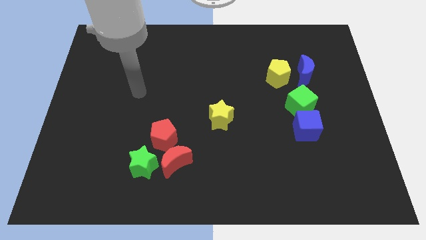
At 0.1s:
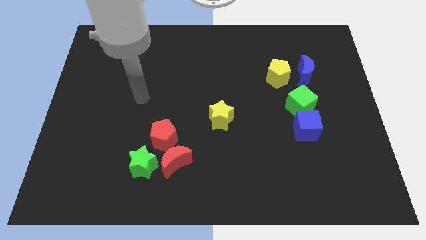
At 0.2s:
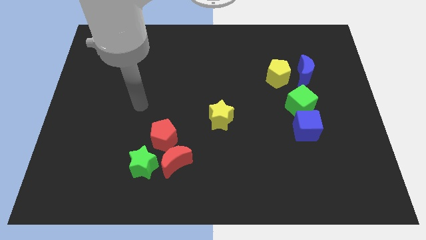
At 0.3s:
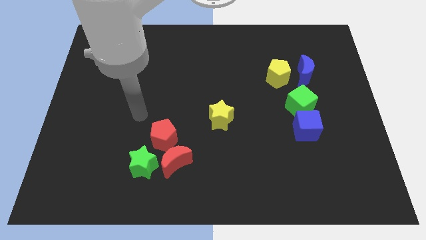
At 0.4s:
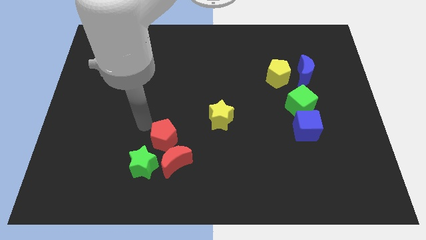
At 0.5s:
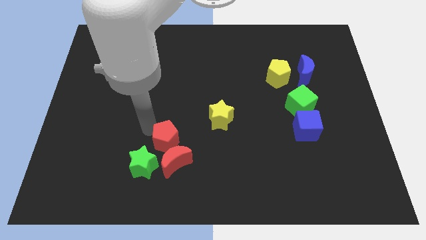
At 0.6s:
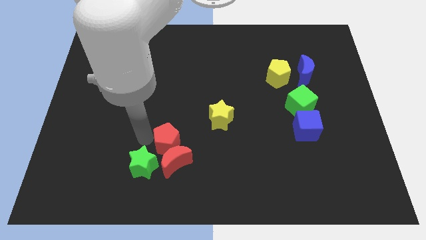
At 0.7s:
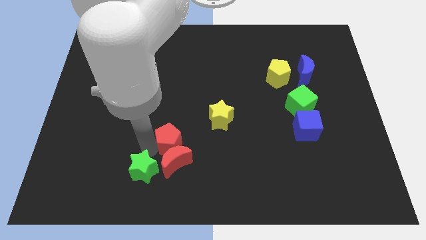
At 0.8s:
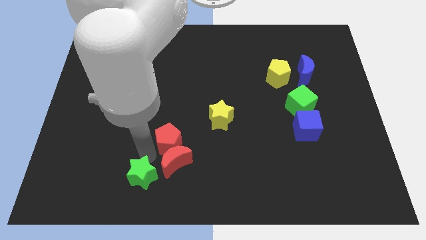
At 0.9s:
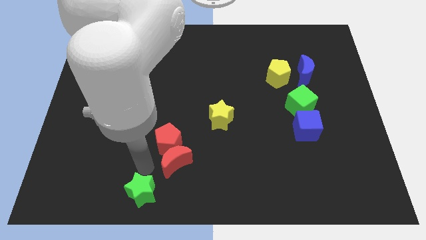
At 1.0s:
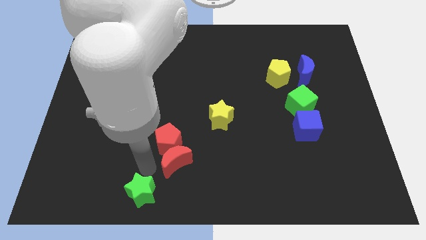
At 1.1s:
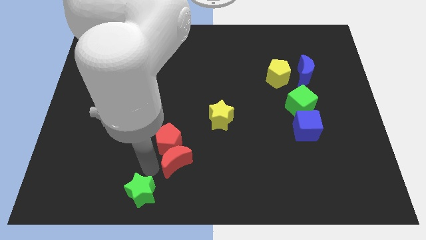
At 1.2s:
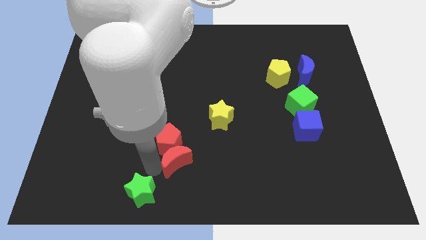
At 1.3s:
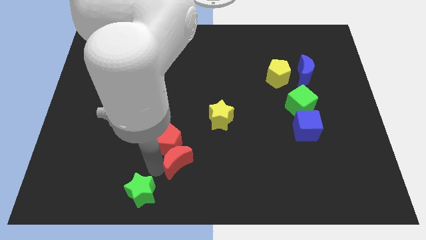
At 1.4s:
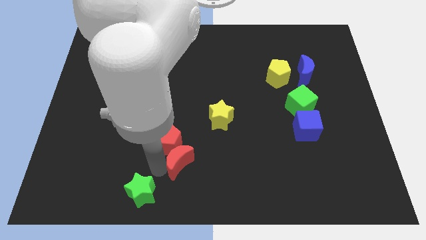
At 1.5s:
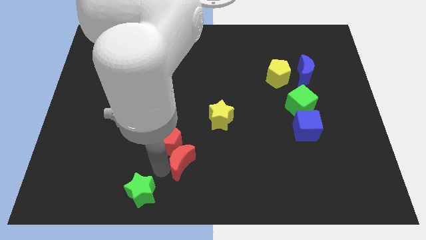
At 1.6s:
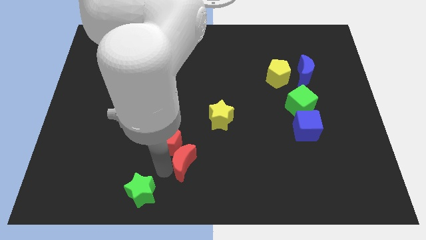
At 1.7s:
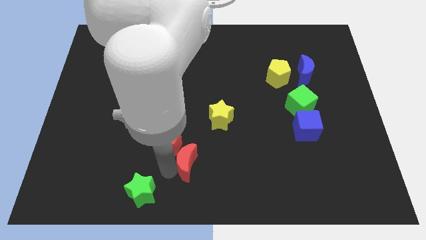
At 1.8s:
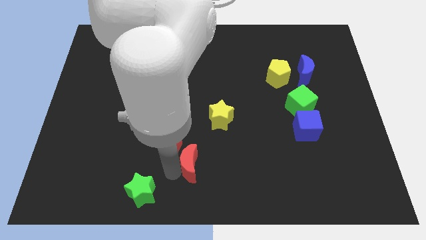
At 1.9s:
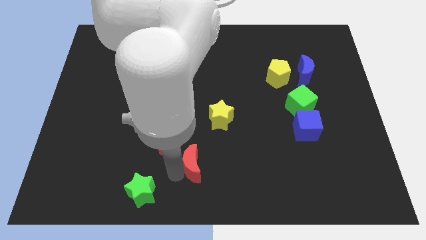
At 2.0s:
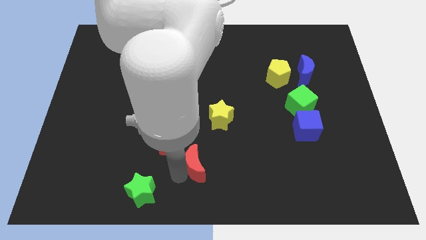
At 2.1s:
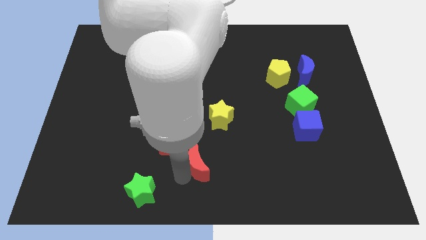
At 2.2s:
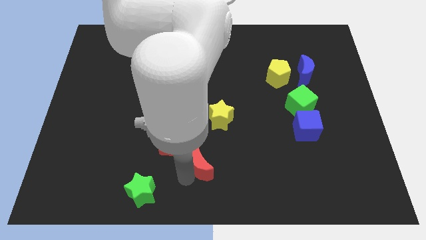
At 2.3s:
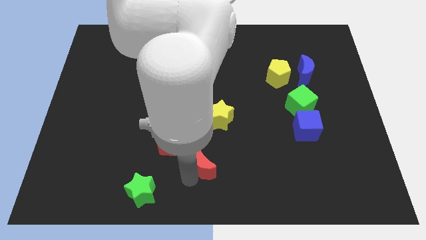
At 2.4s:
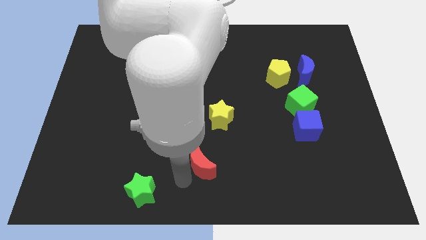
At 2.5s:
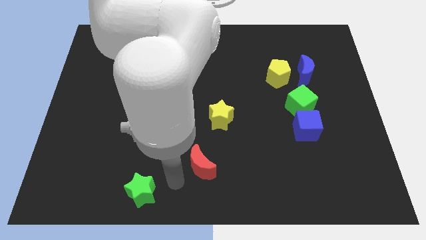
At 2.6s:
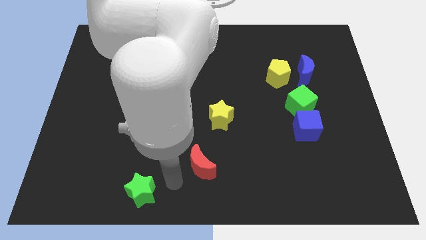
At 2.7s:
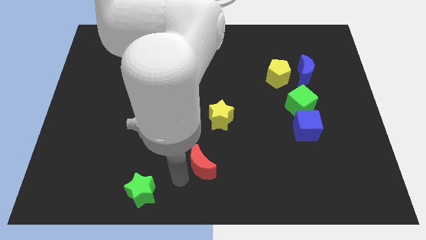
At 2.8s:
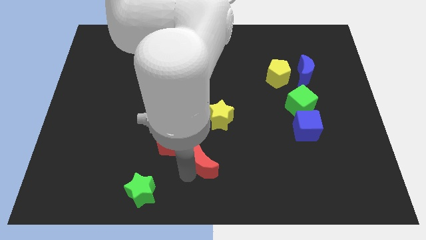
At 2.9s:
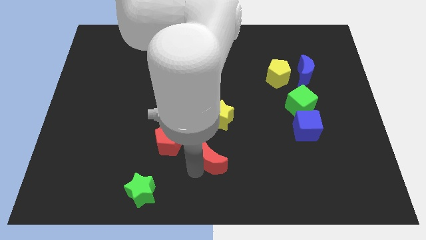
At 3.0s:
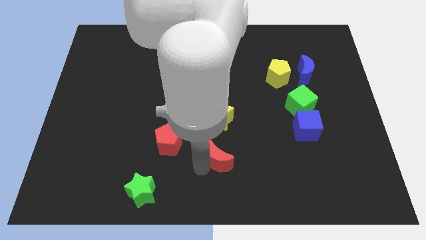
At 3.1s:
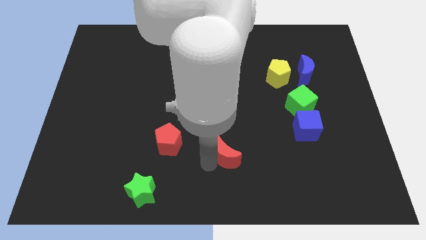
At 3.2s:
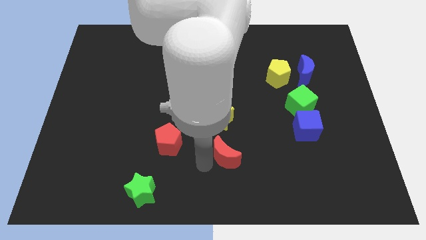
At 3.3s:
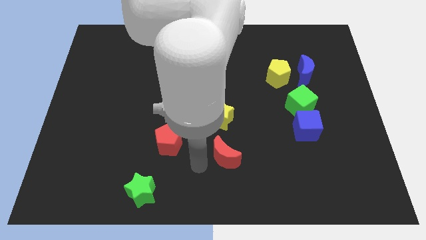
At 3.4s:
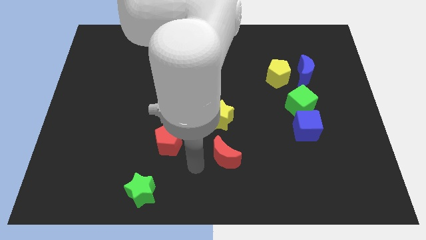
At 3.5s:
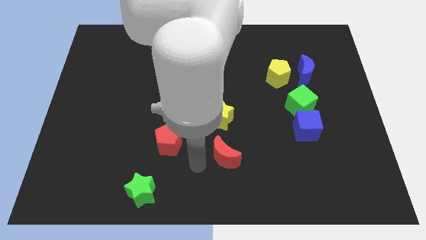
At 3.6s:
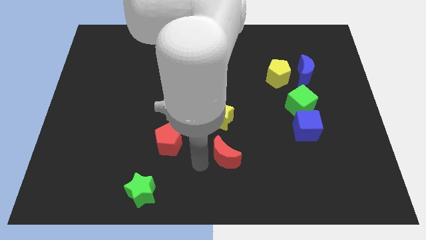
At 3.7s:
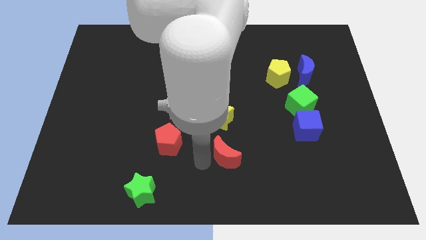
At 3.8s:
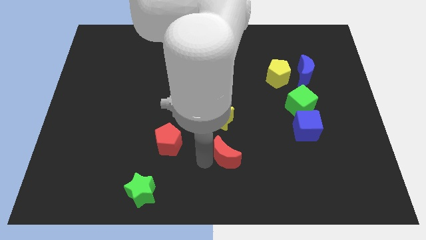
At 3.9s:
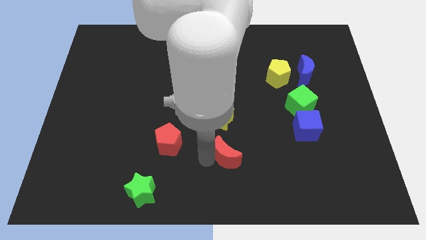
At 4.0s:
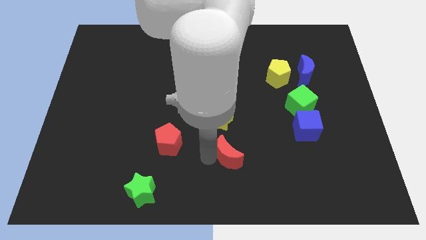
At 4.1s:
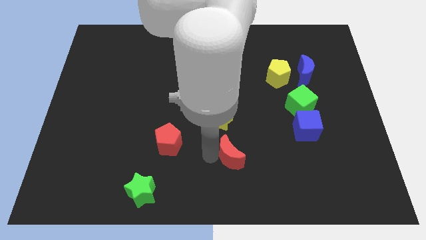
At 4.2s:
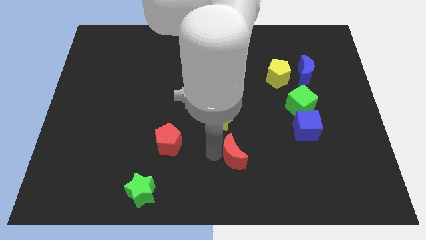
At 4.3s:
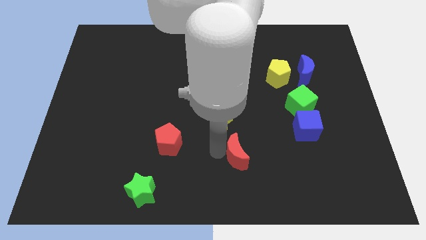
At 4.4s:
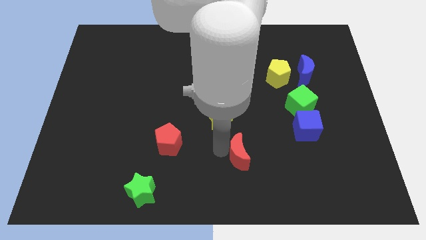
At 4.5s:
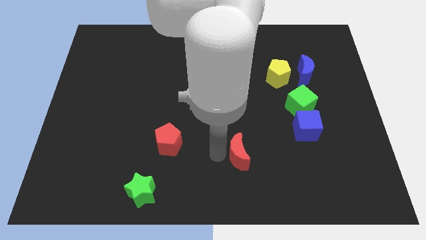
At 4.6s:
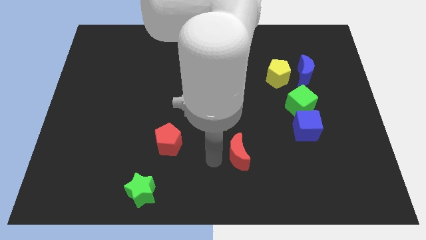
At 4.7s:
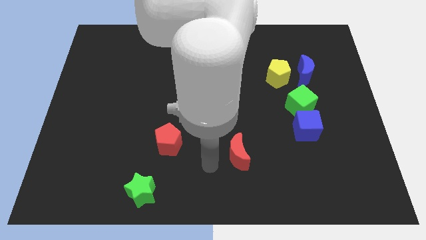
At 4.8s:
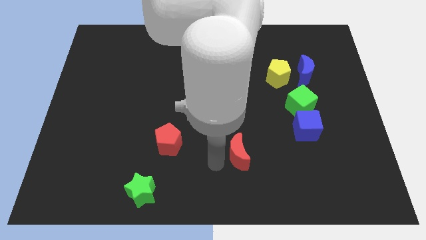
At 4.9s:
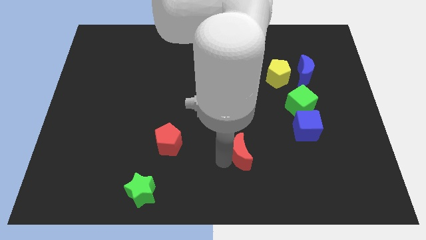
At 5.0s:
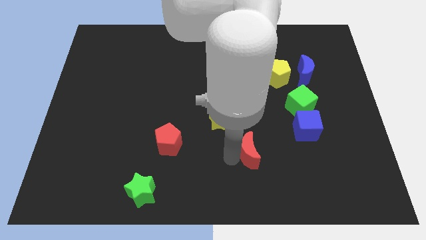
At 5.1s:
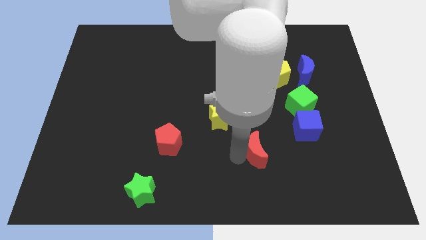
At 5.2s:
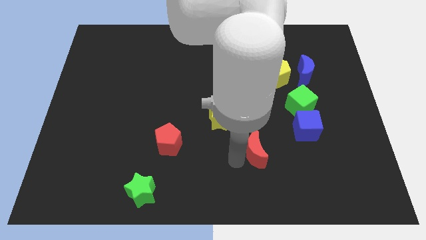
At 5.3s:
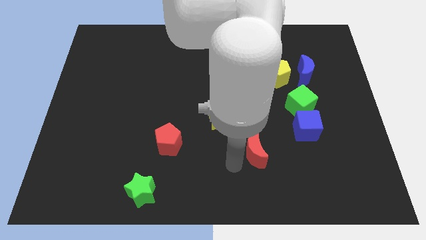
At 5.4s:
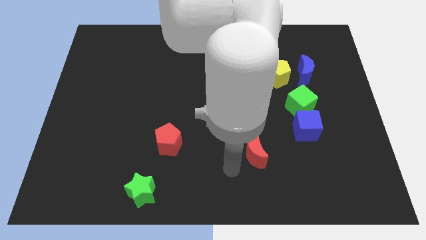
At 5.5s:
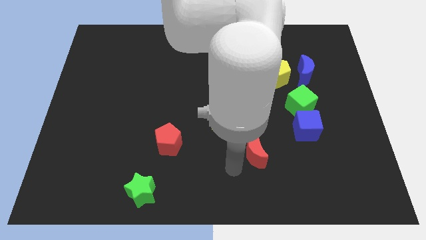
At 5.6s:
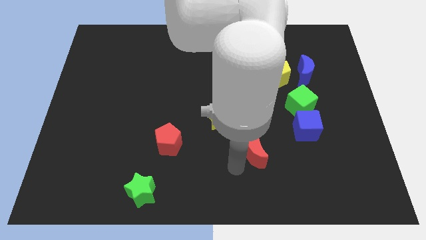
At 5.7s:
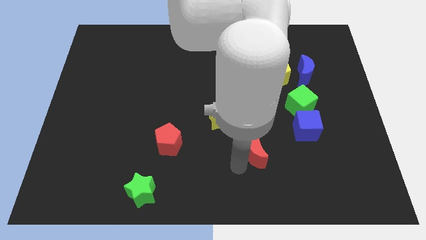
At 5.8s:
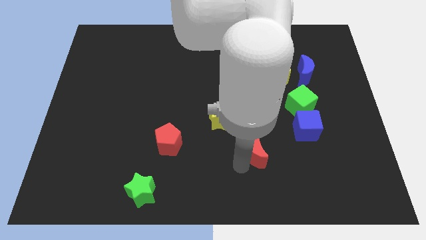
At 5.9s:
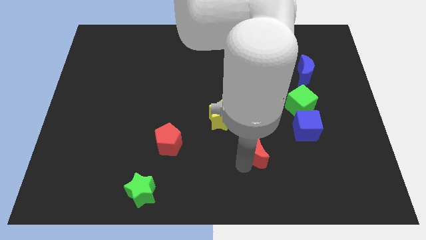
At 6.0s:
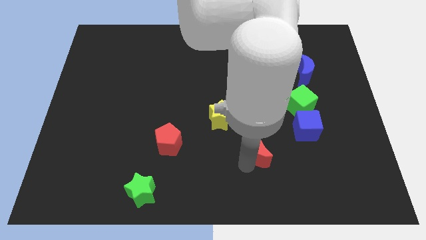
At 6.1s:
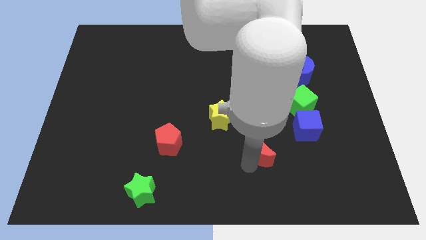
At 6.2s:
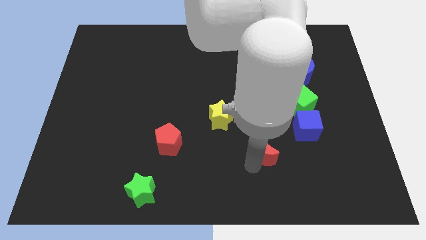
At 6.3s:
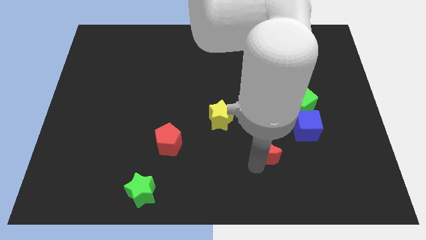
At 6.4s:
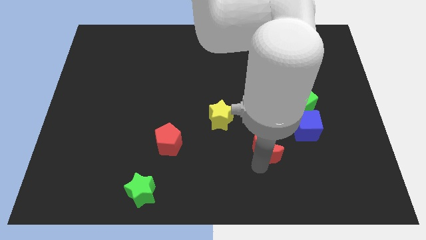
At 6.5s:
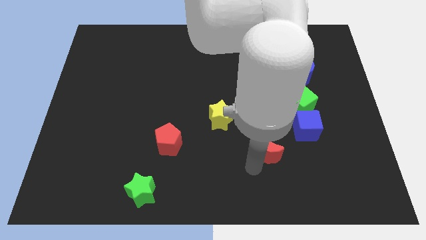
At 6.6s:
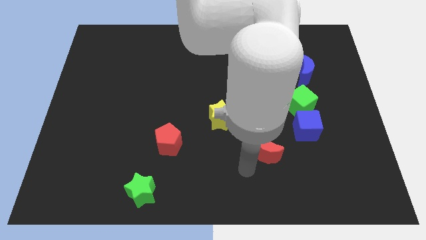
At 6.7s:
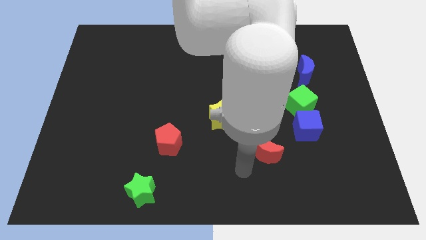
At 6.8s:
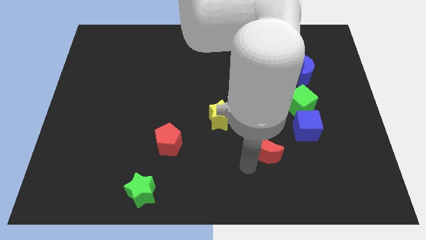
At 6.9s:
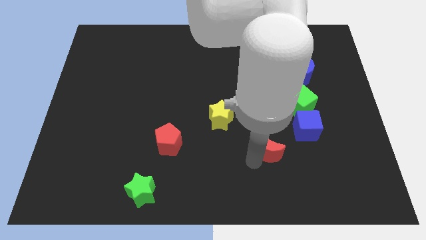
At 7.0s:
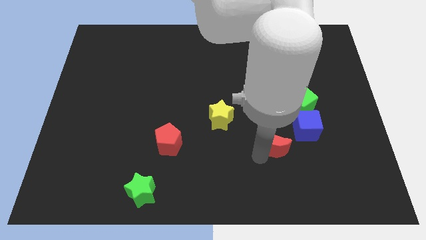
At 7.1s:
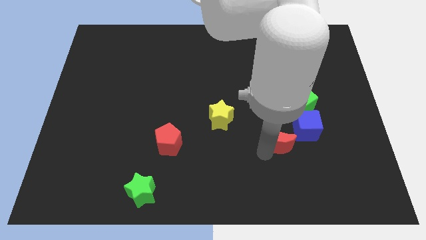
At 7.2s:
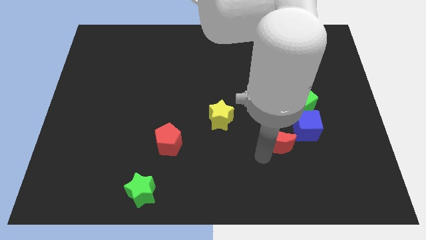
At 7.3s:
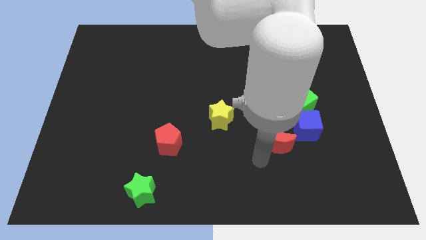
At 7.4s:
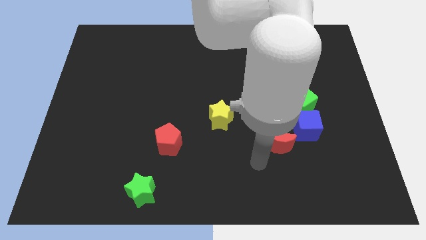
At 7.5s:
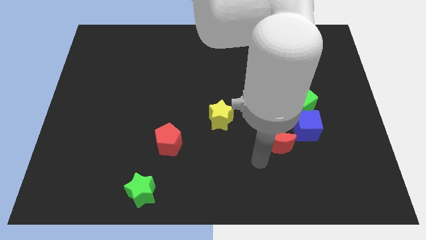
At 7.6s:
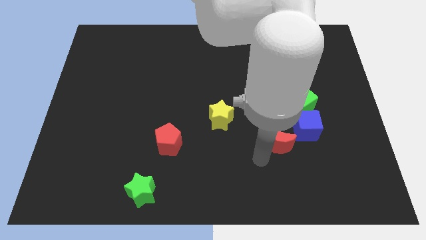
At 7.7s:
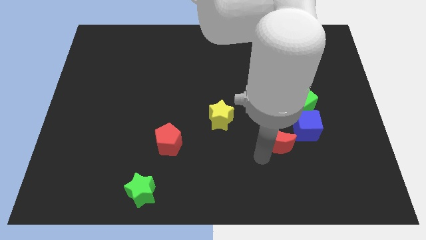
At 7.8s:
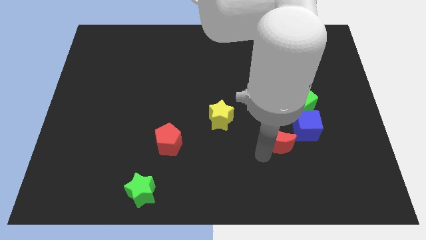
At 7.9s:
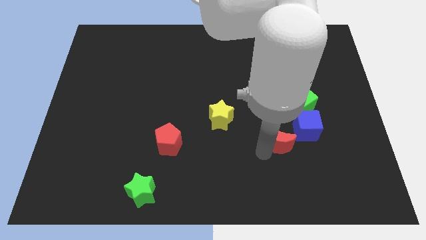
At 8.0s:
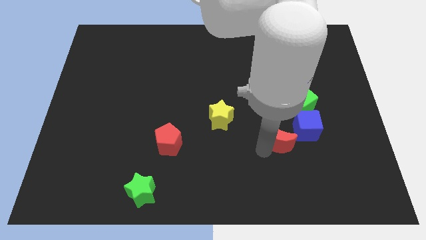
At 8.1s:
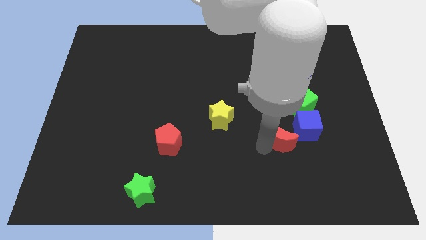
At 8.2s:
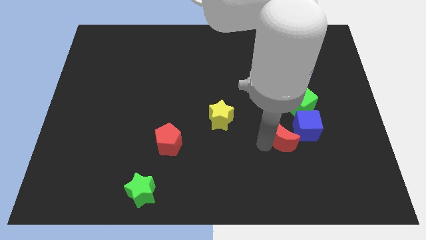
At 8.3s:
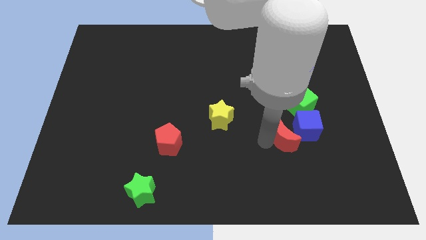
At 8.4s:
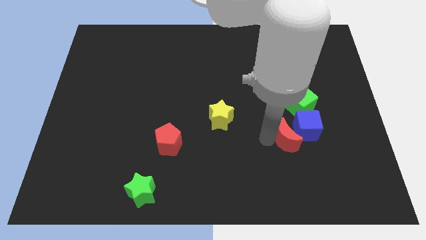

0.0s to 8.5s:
put the red moon to the blue cube
